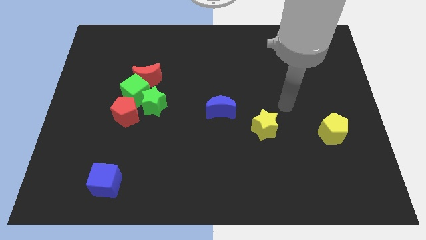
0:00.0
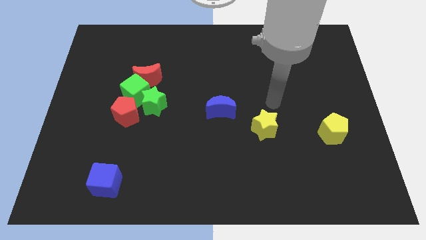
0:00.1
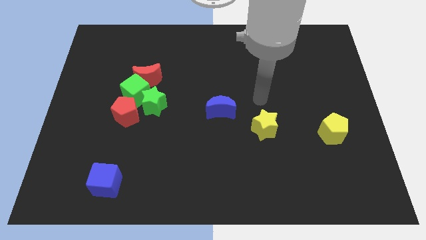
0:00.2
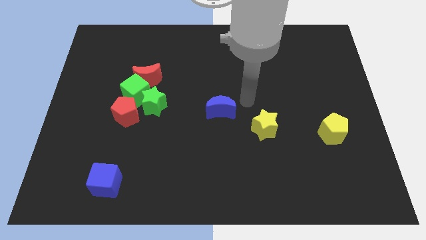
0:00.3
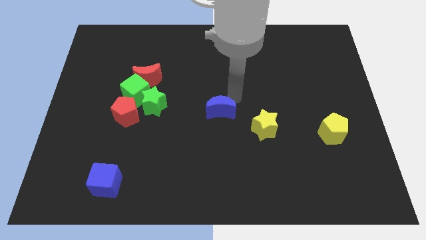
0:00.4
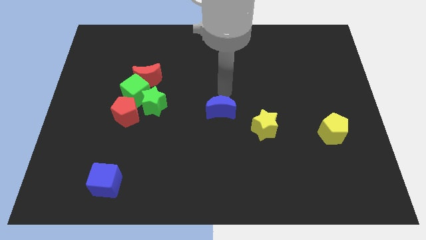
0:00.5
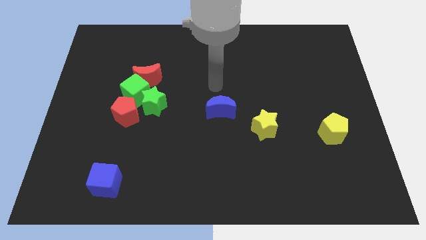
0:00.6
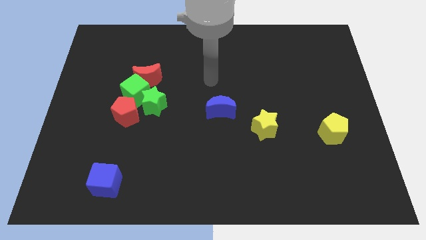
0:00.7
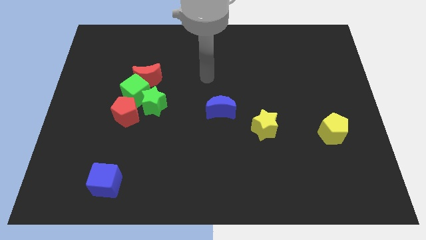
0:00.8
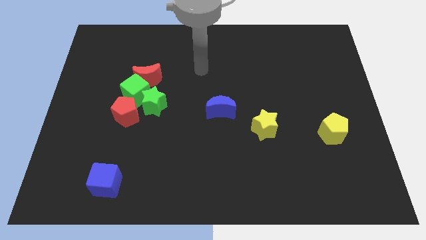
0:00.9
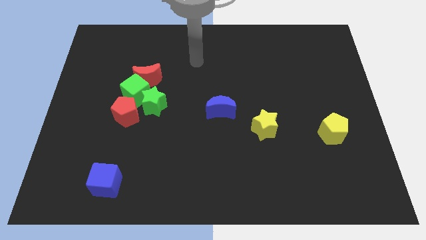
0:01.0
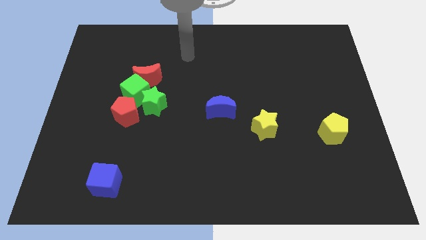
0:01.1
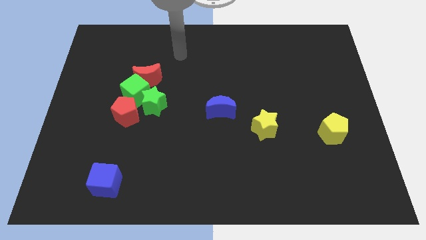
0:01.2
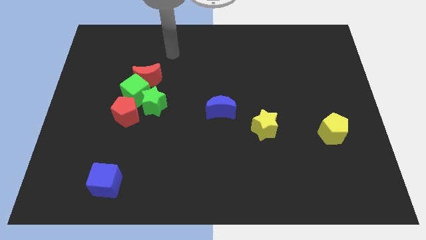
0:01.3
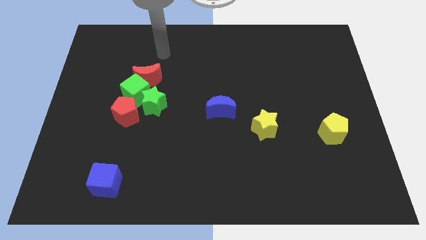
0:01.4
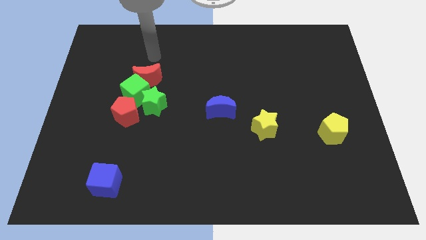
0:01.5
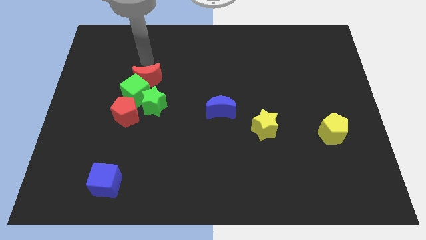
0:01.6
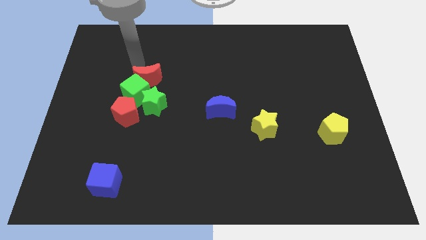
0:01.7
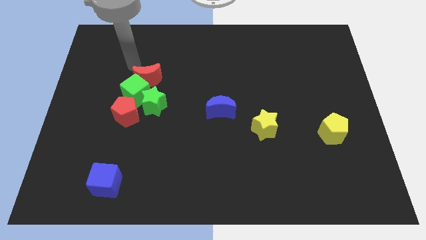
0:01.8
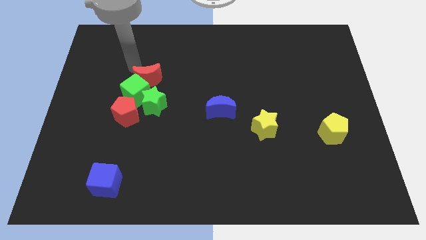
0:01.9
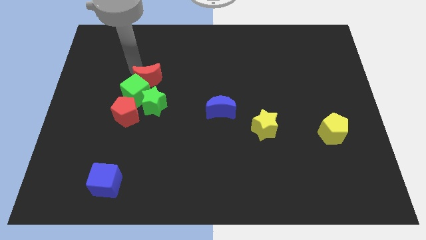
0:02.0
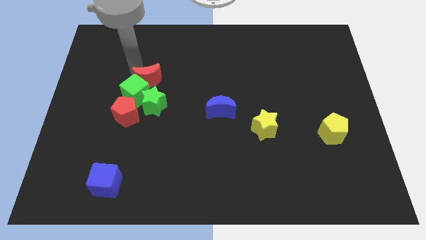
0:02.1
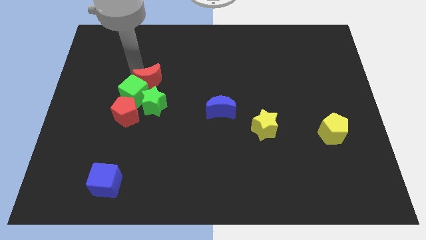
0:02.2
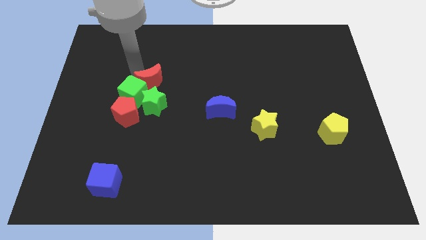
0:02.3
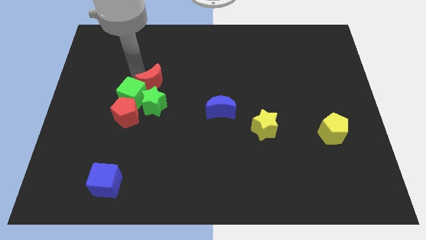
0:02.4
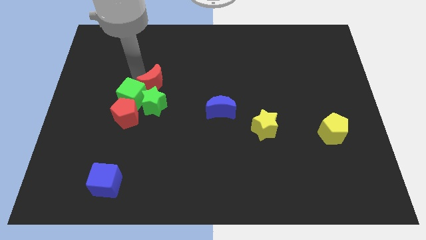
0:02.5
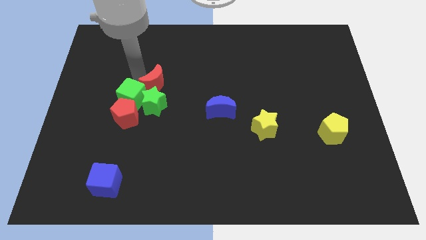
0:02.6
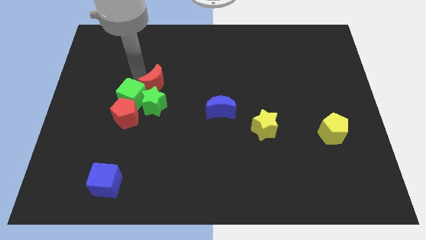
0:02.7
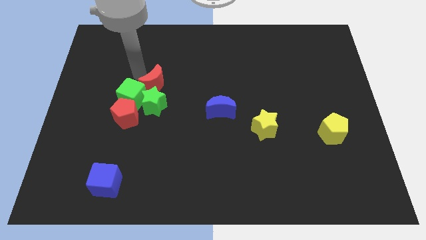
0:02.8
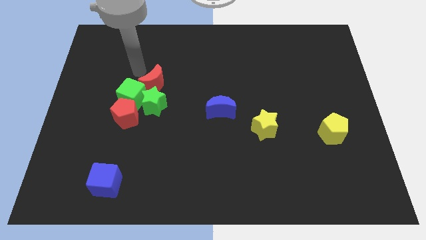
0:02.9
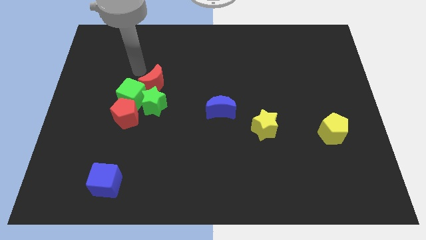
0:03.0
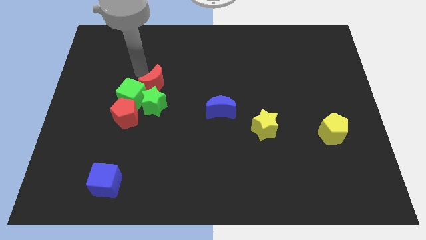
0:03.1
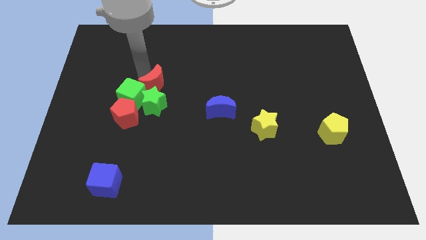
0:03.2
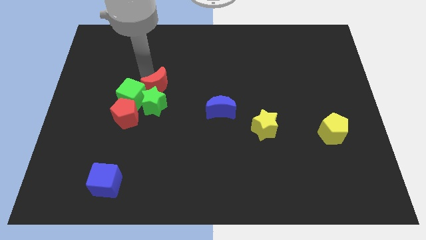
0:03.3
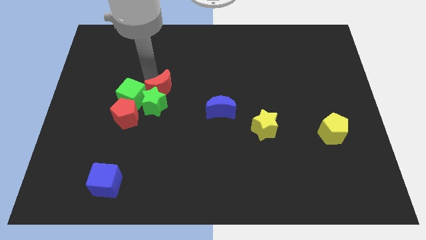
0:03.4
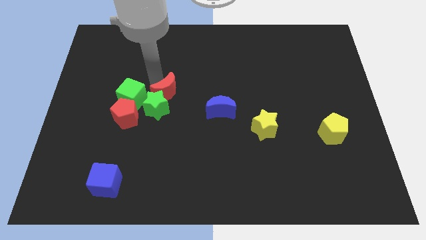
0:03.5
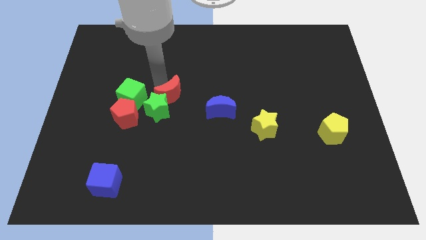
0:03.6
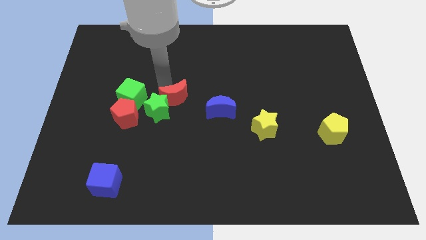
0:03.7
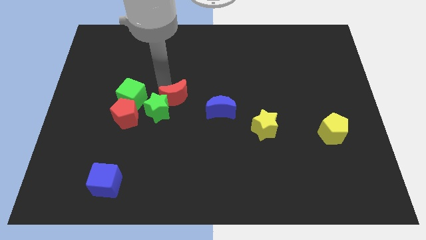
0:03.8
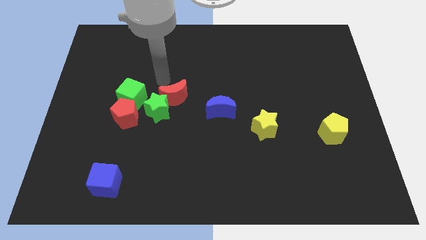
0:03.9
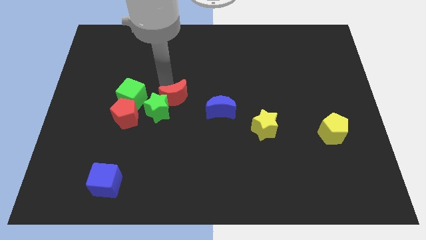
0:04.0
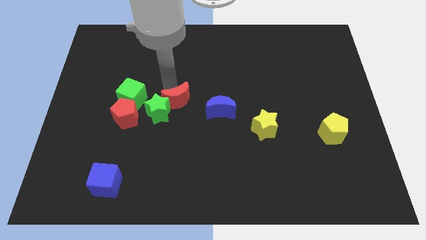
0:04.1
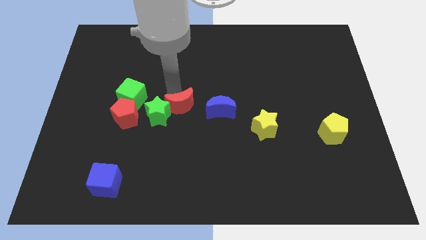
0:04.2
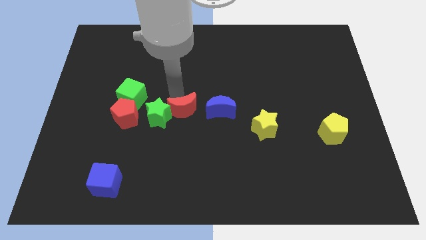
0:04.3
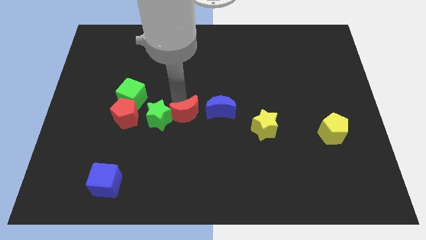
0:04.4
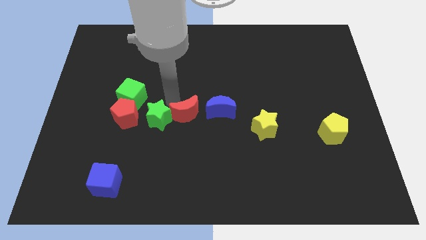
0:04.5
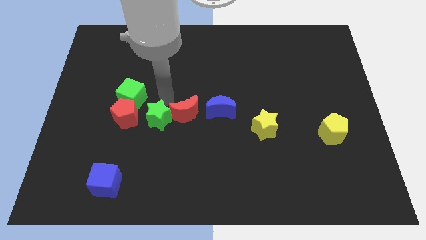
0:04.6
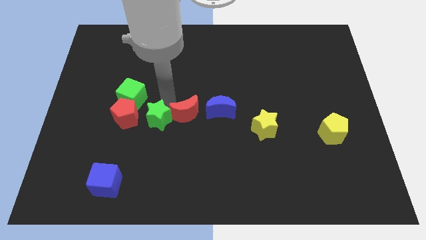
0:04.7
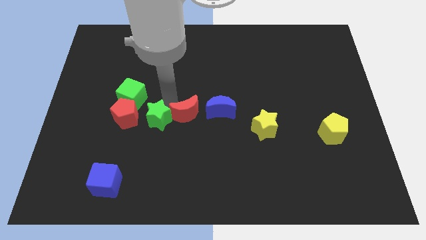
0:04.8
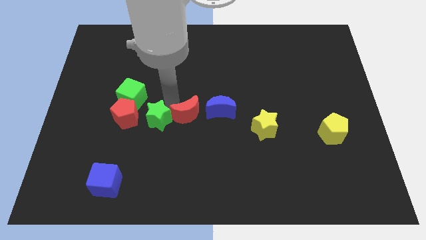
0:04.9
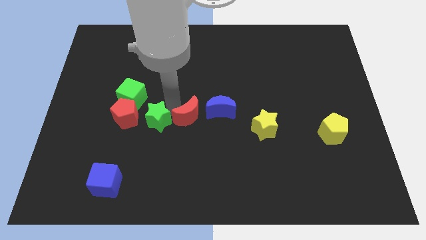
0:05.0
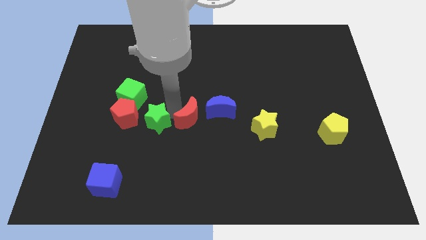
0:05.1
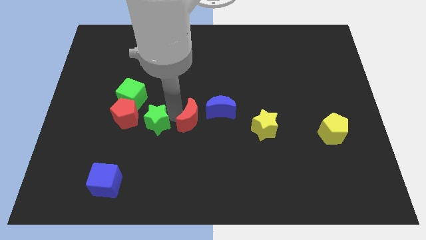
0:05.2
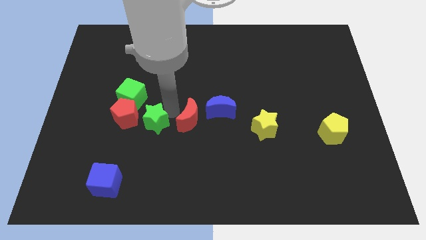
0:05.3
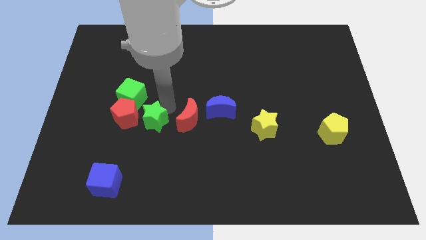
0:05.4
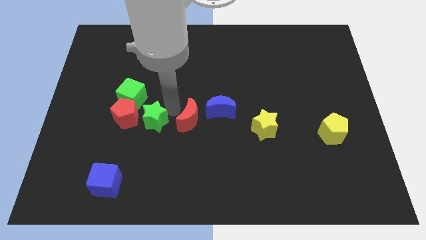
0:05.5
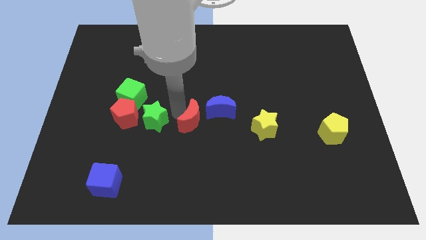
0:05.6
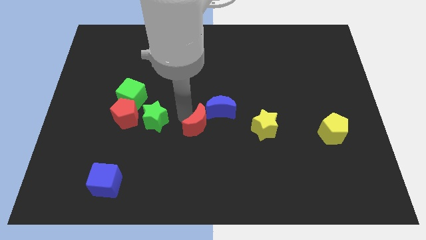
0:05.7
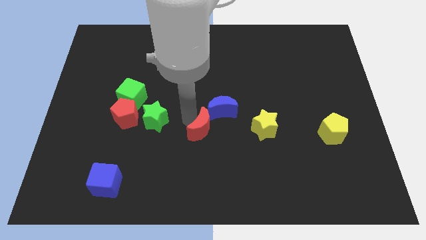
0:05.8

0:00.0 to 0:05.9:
push the red moon diagonally downwards and to the right

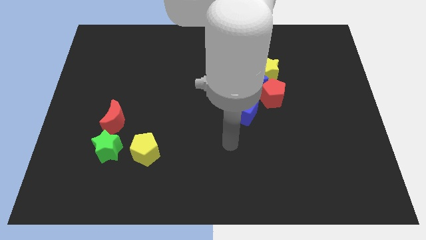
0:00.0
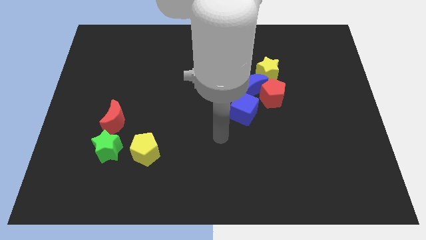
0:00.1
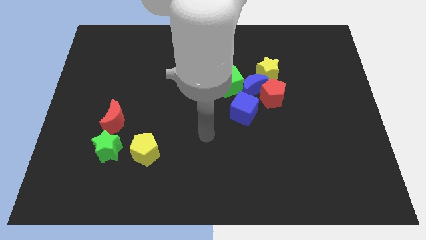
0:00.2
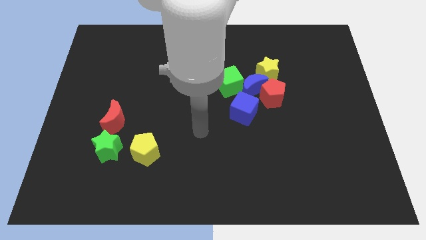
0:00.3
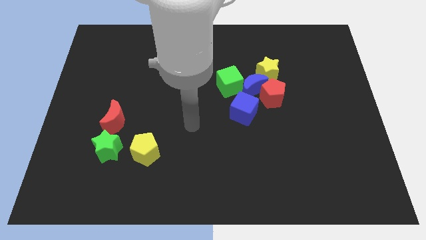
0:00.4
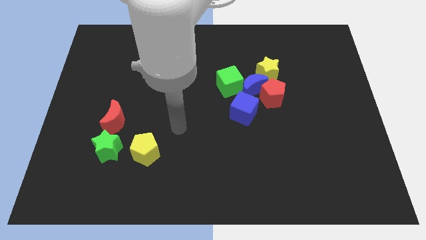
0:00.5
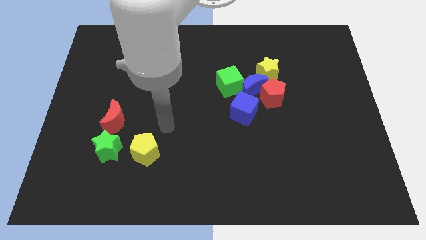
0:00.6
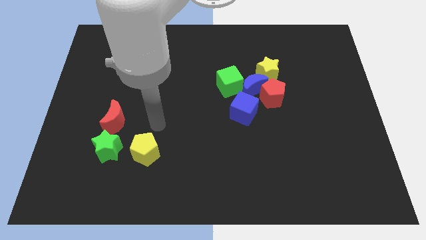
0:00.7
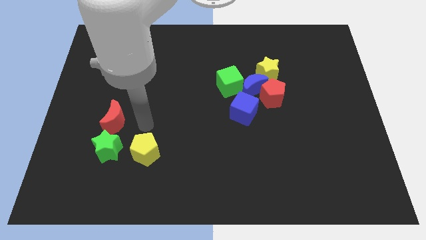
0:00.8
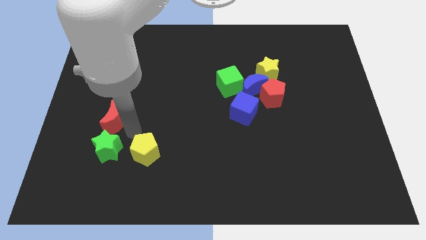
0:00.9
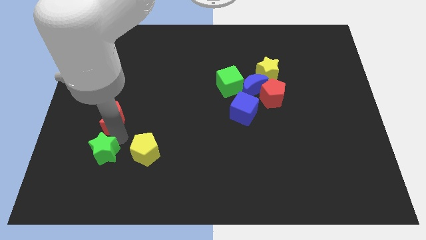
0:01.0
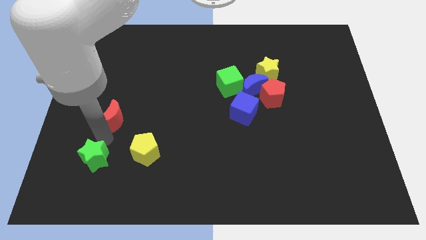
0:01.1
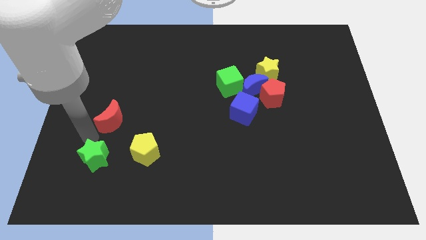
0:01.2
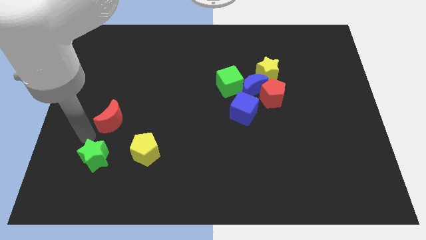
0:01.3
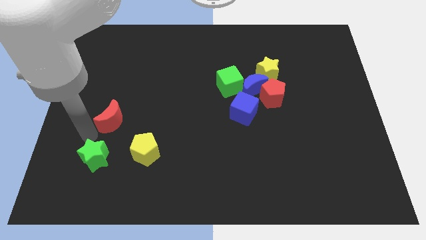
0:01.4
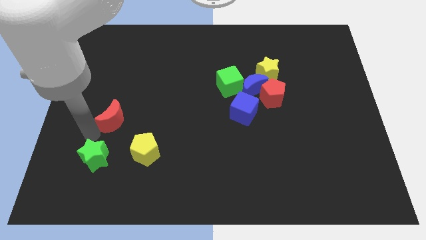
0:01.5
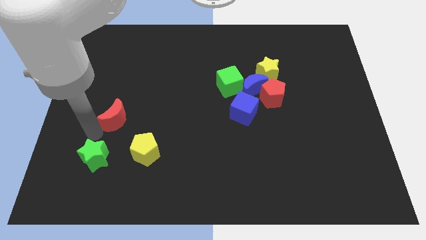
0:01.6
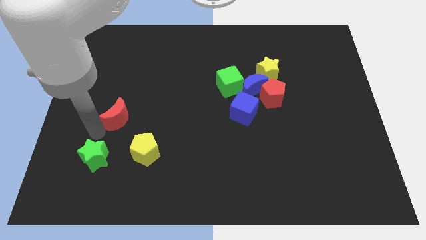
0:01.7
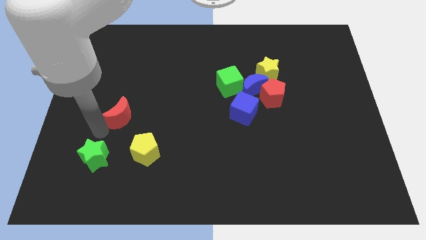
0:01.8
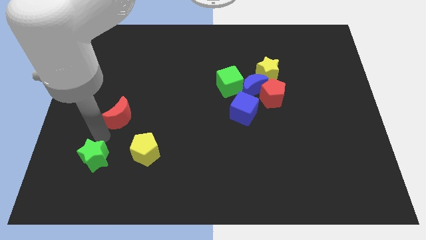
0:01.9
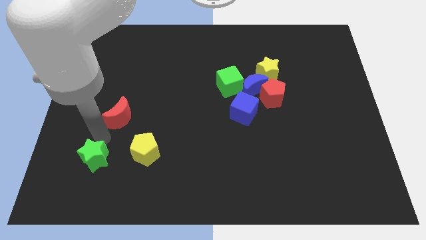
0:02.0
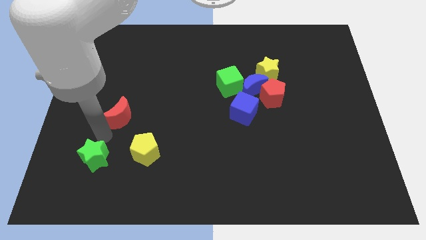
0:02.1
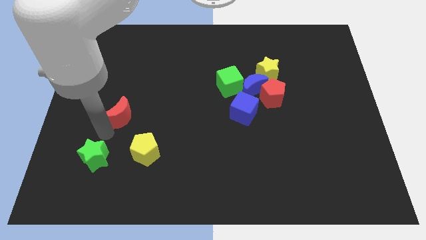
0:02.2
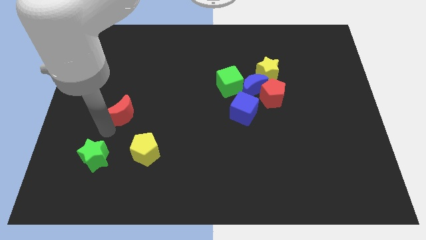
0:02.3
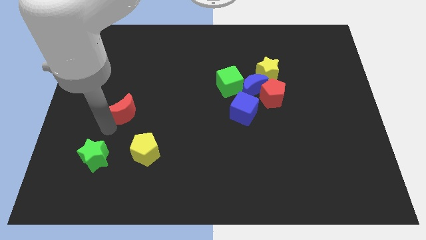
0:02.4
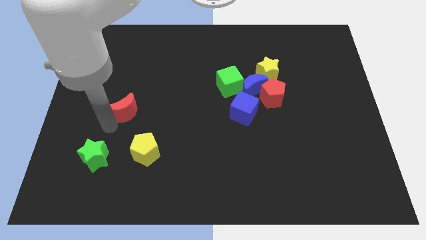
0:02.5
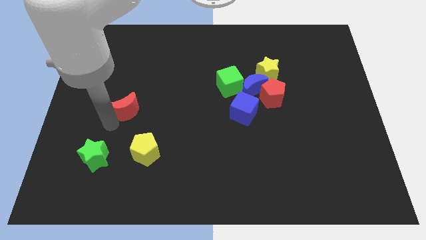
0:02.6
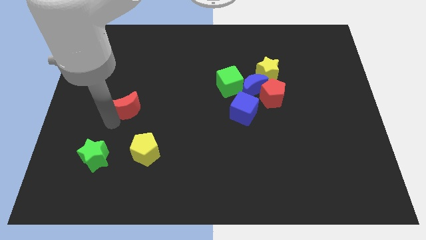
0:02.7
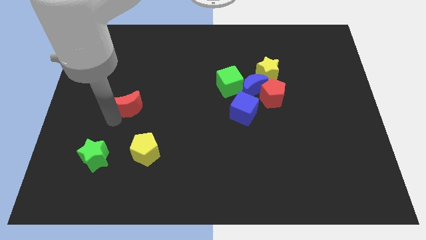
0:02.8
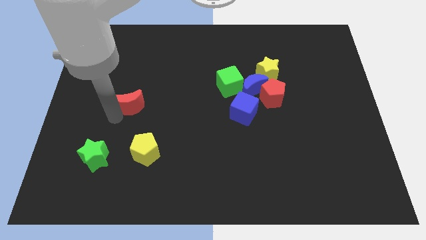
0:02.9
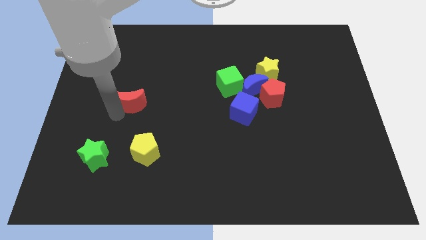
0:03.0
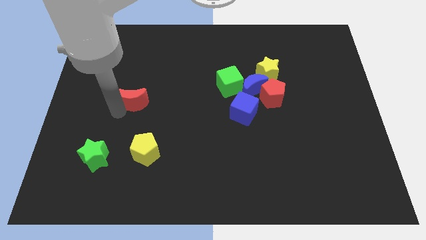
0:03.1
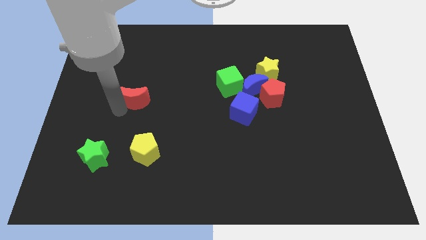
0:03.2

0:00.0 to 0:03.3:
push the red moon slightly up and to the right
